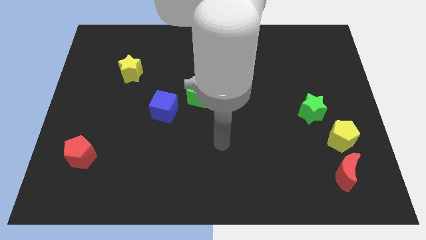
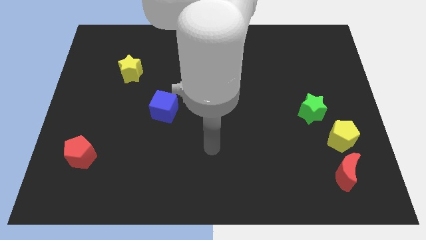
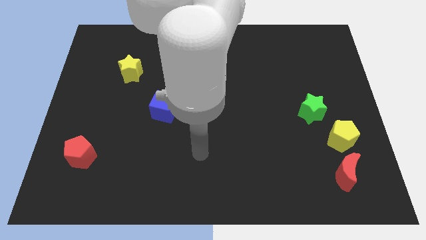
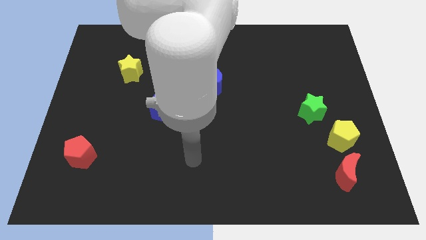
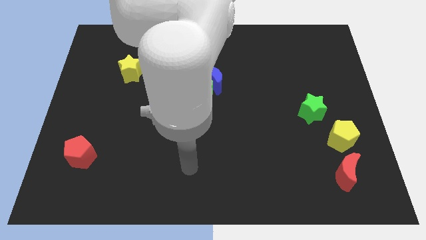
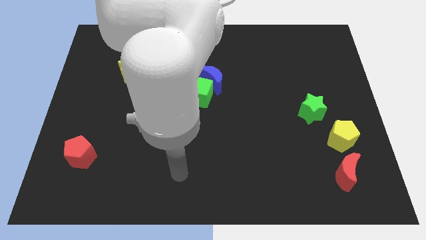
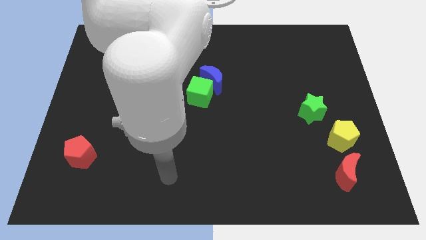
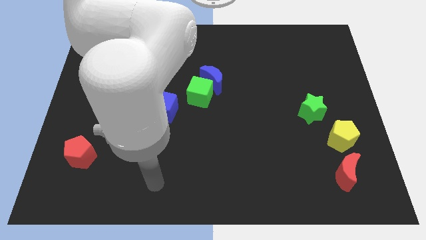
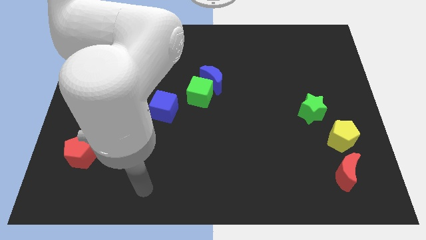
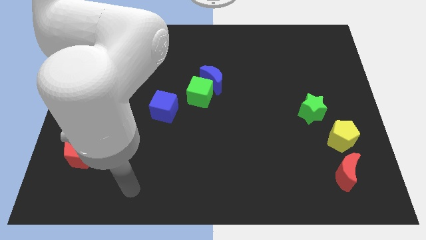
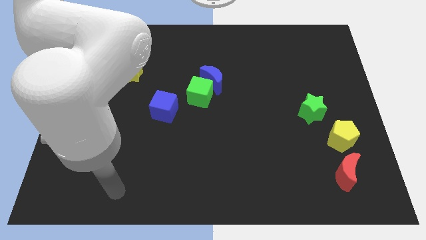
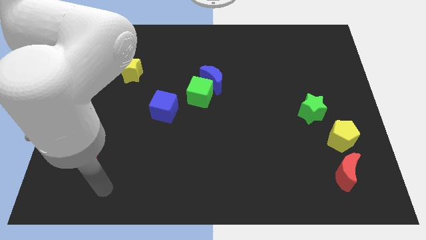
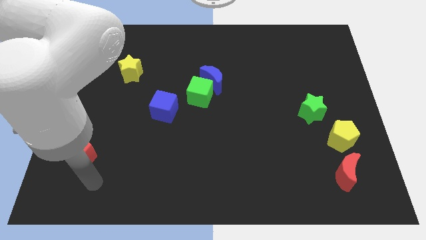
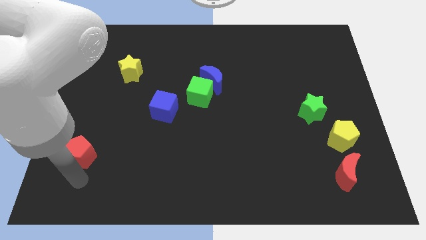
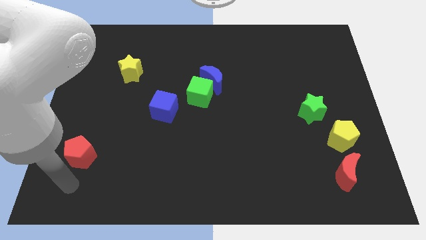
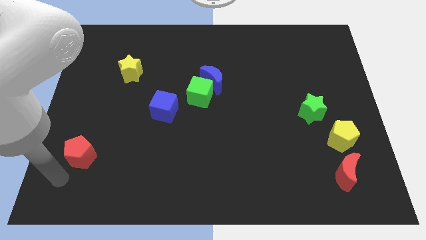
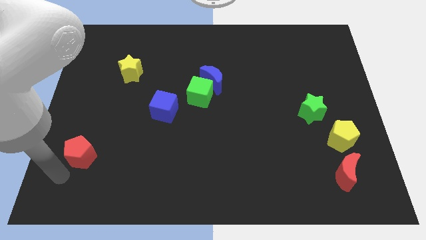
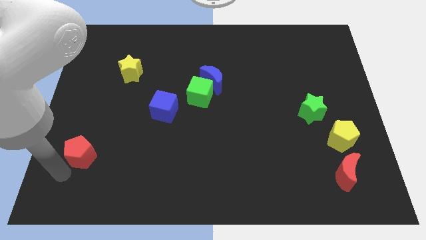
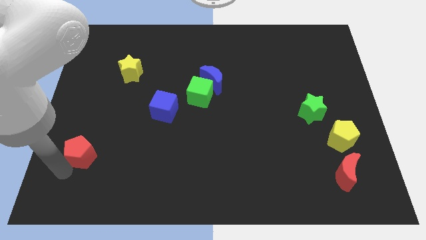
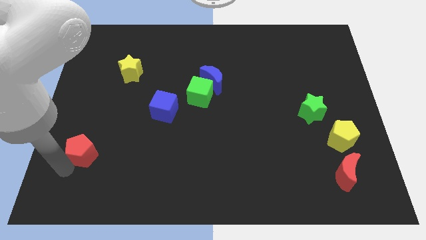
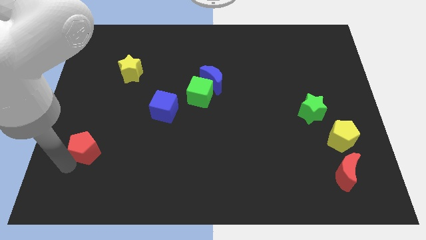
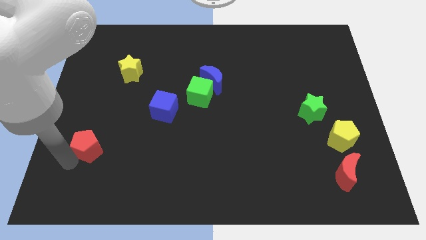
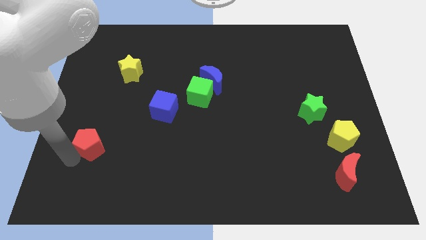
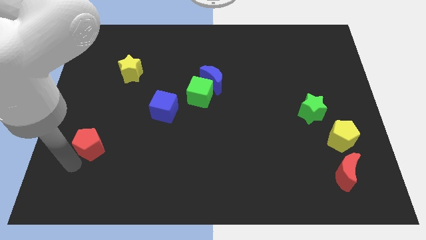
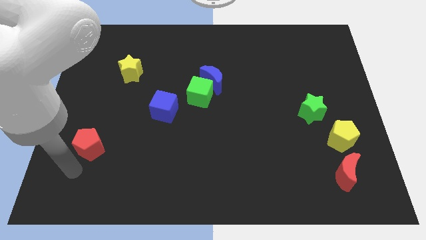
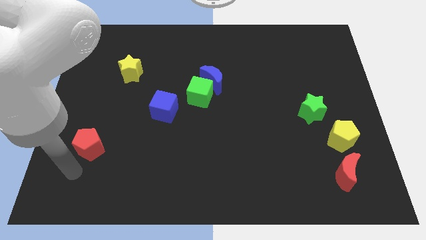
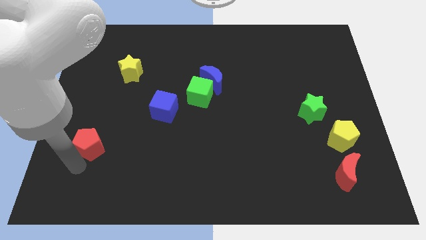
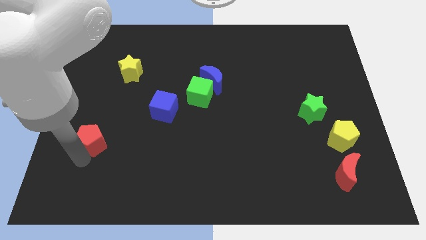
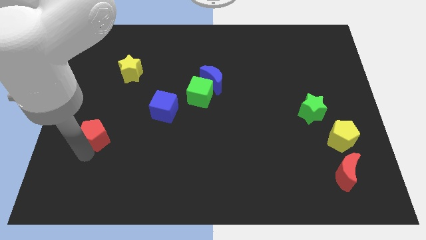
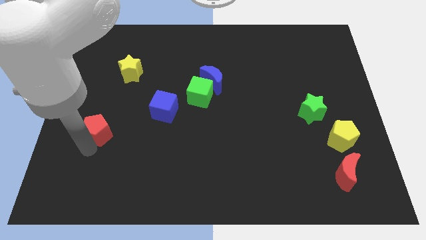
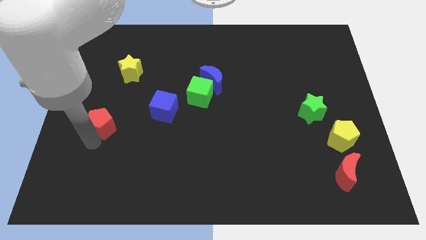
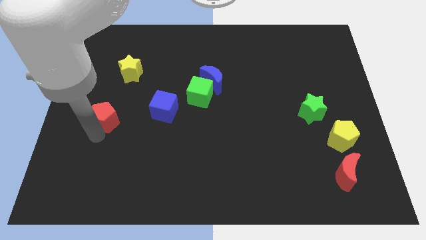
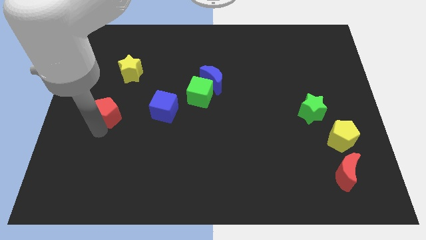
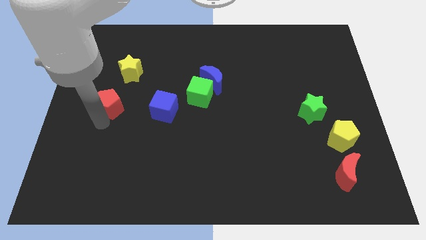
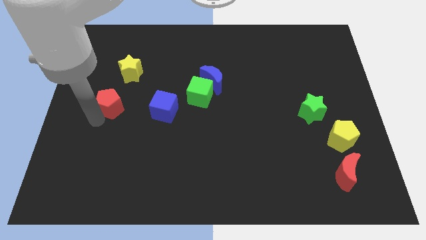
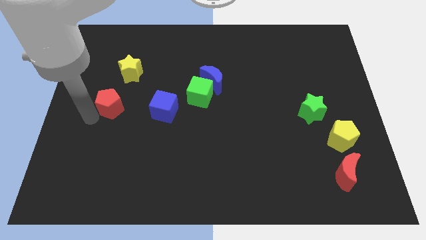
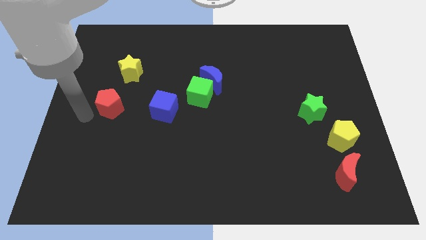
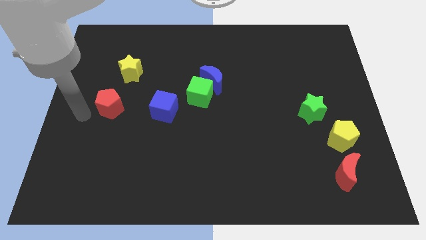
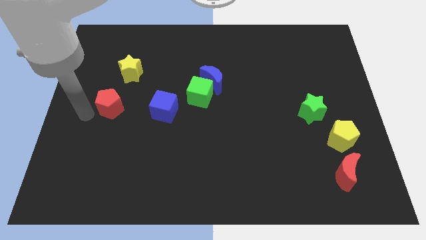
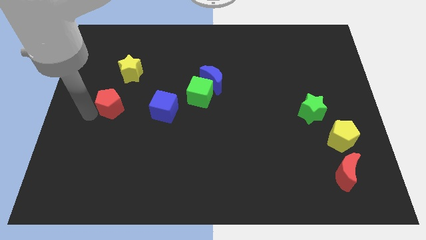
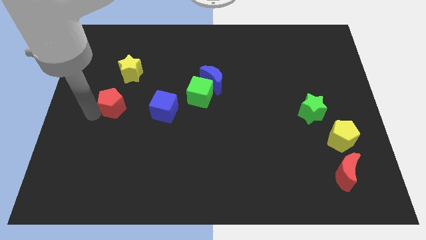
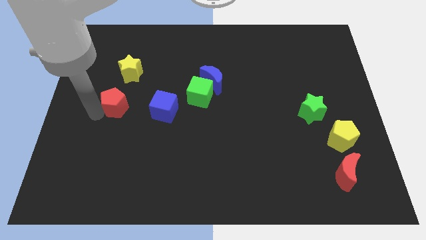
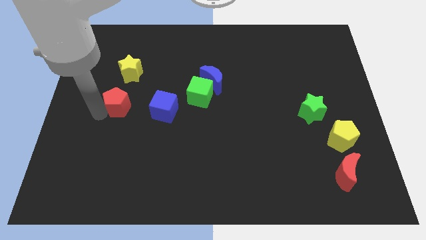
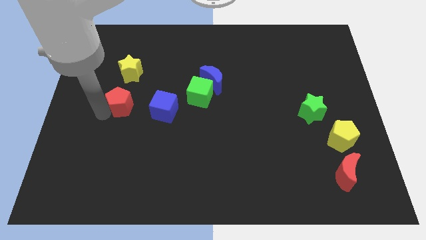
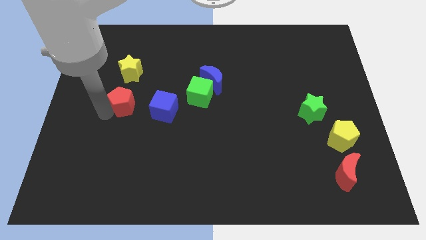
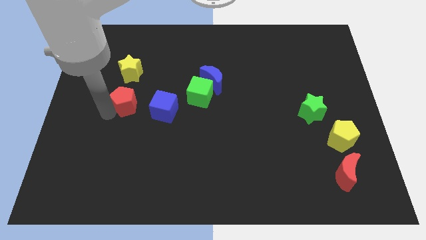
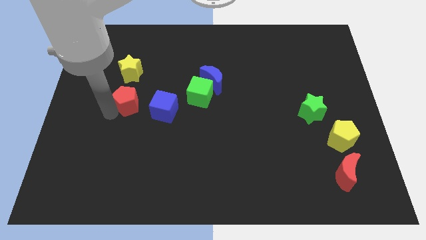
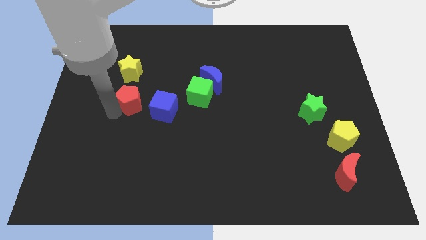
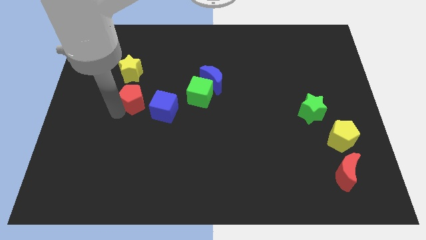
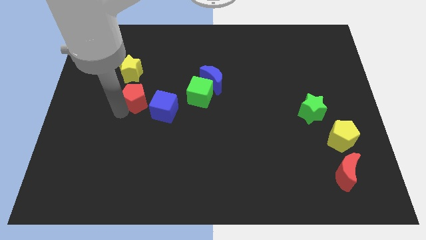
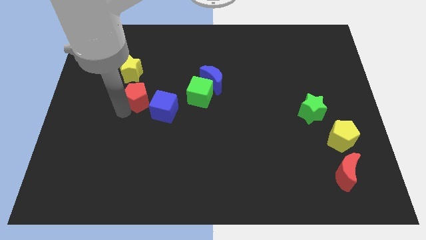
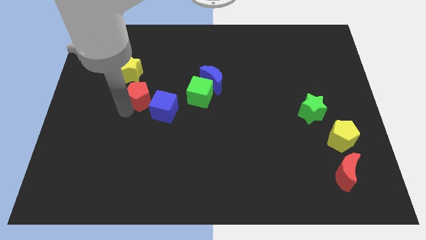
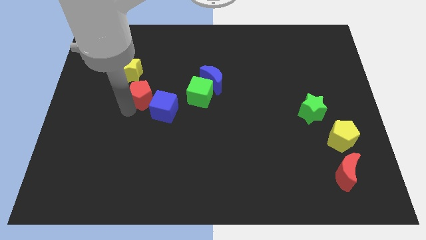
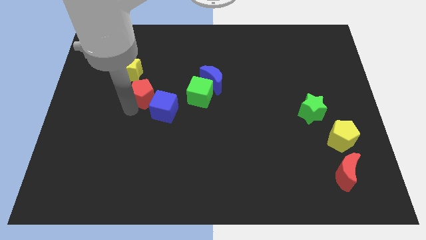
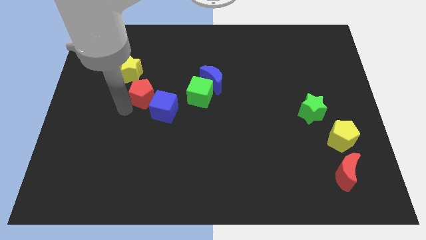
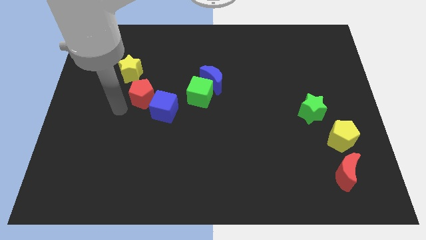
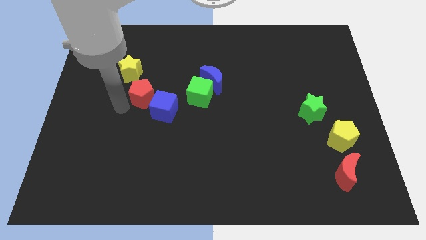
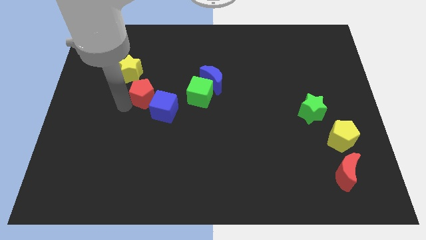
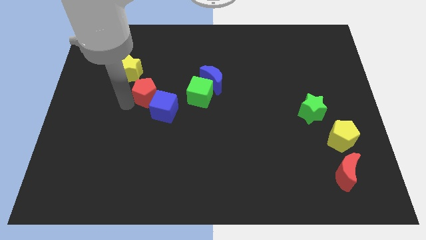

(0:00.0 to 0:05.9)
push the red pentagon up and then to the right

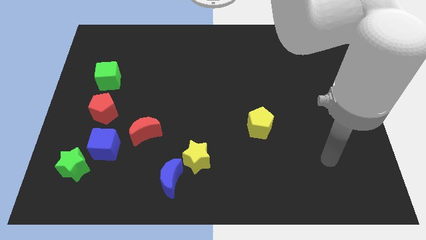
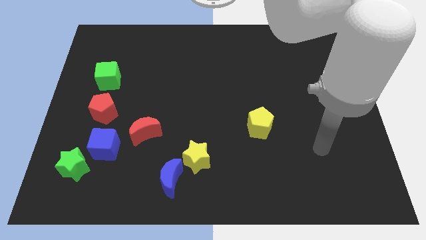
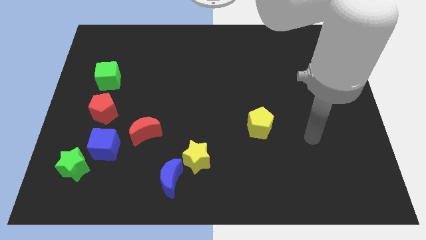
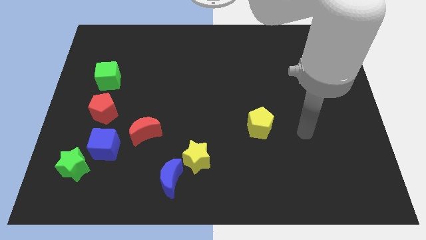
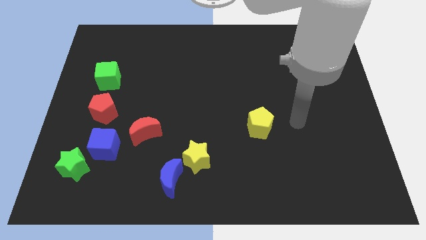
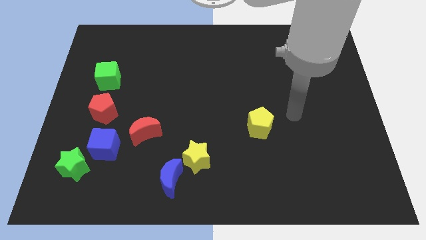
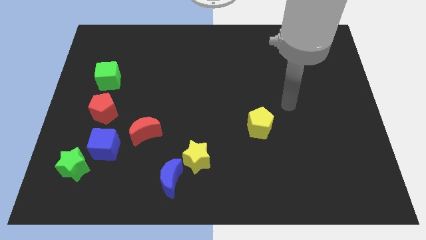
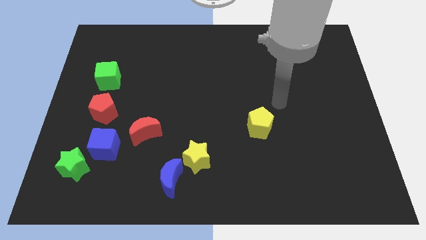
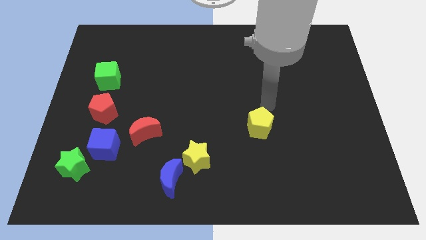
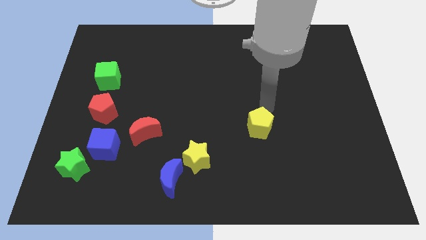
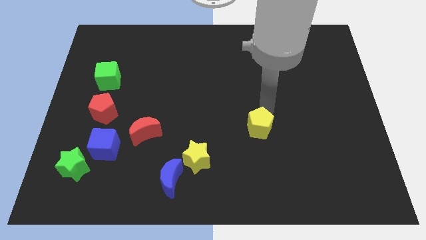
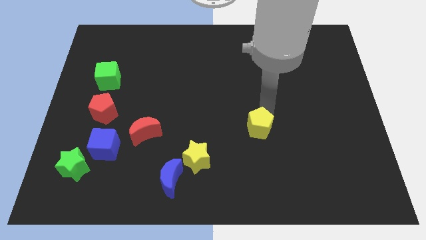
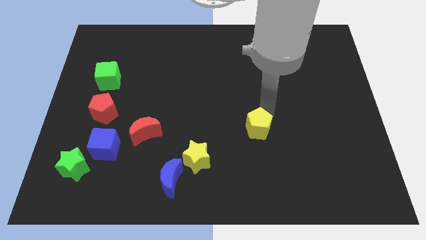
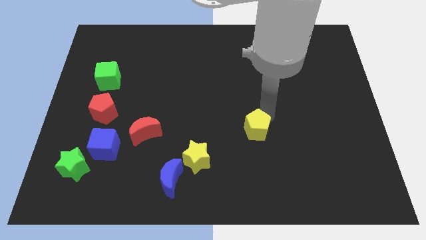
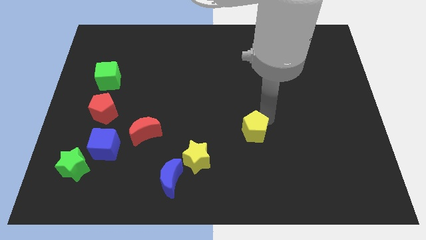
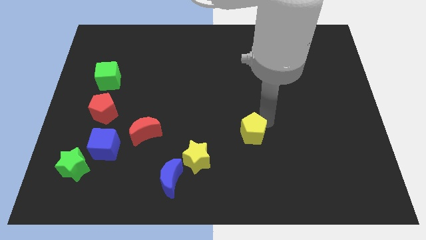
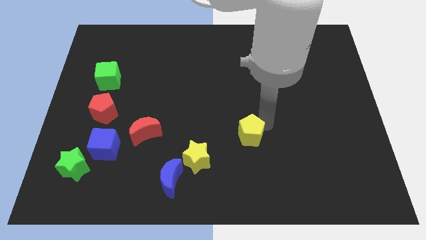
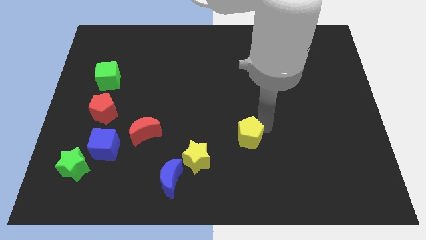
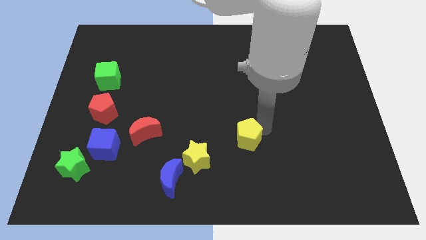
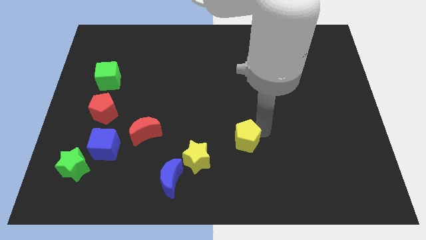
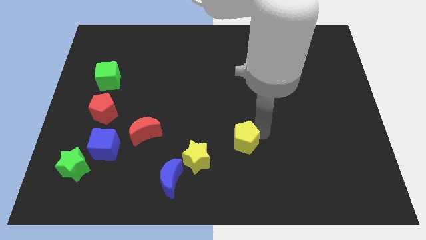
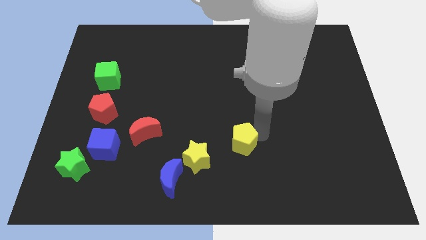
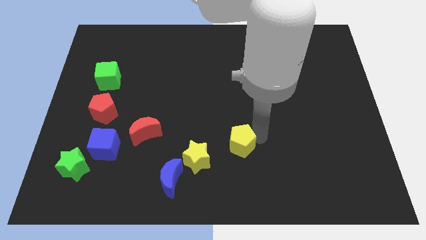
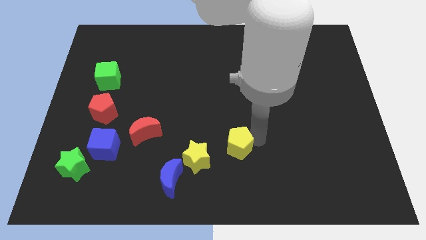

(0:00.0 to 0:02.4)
push the yellow pentagon slightly down and then to the left
